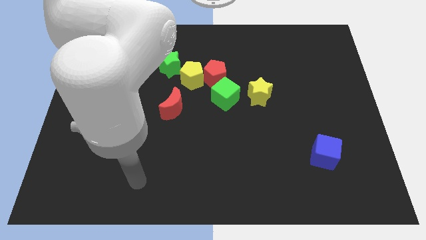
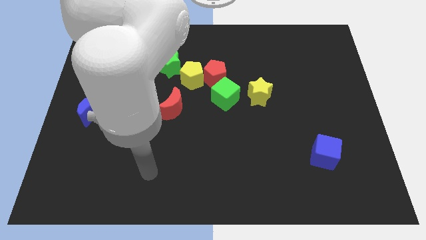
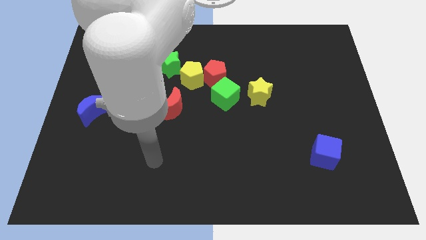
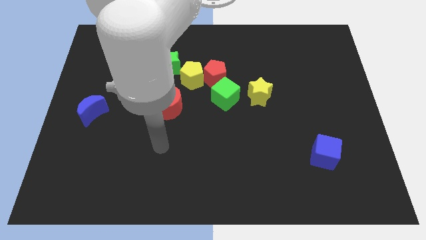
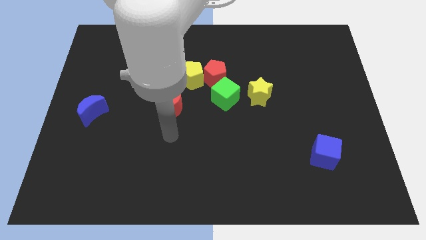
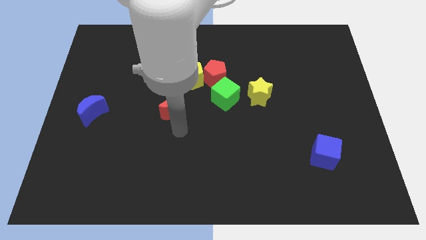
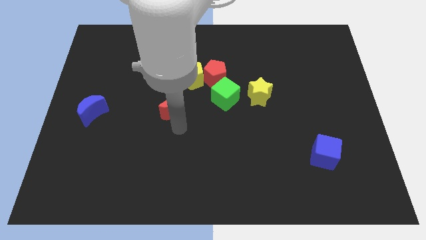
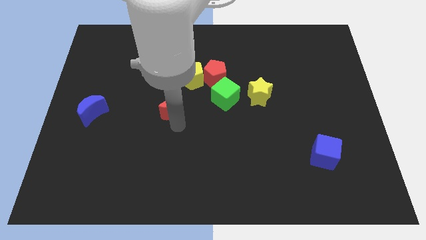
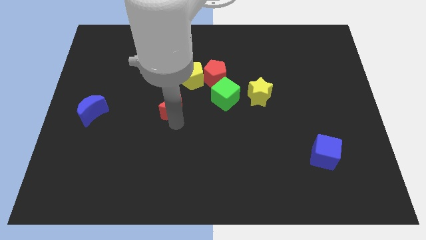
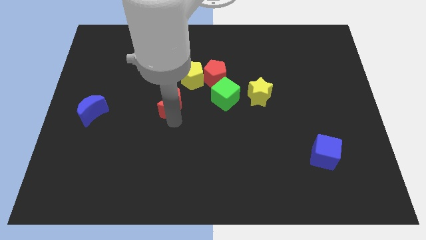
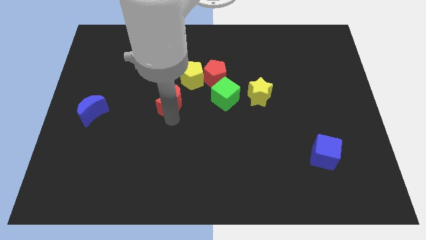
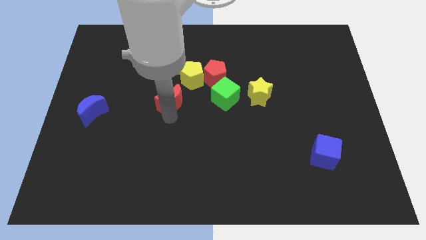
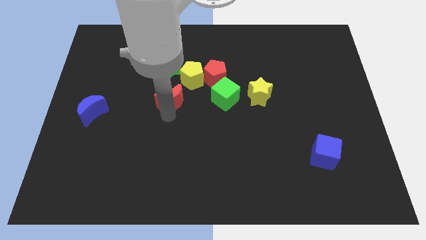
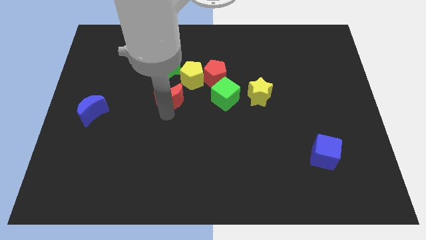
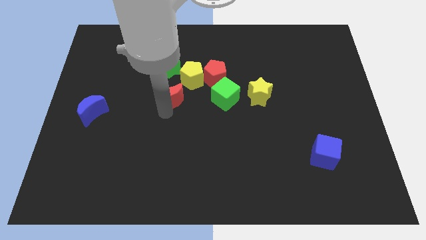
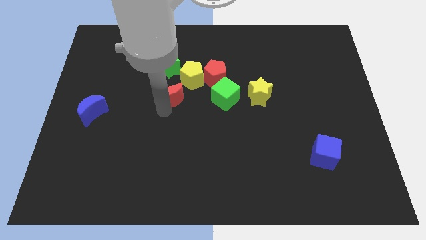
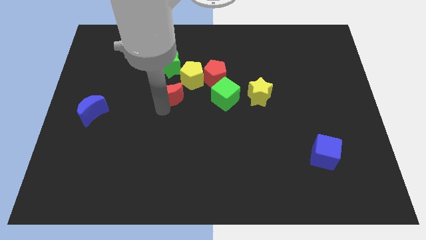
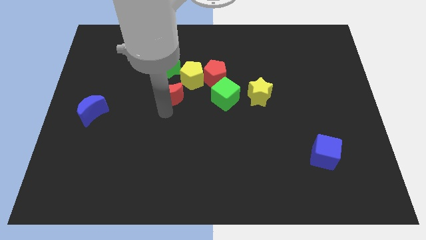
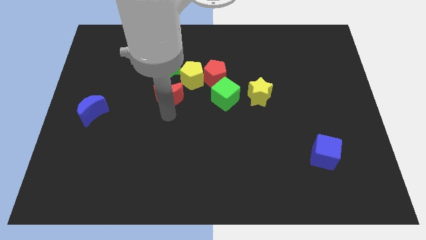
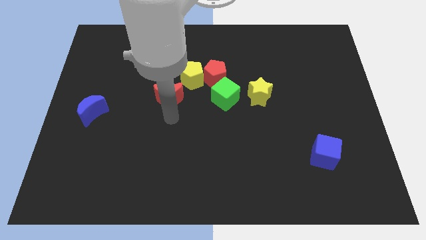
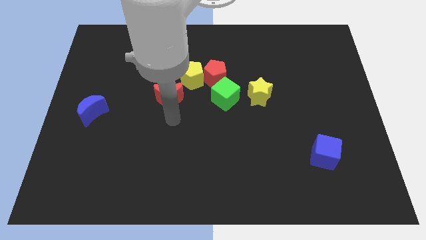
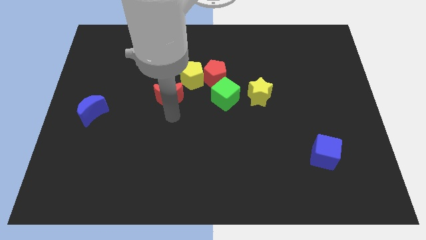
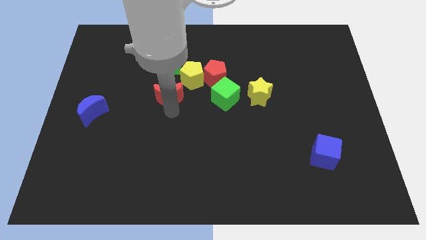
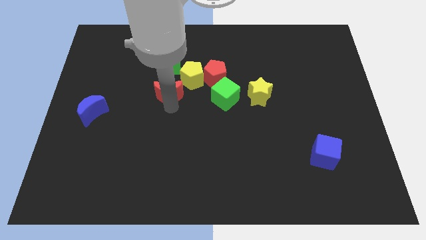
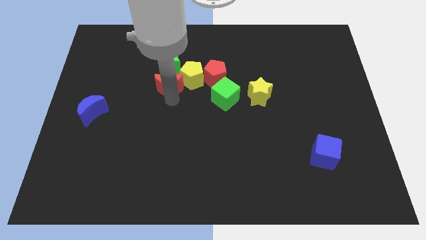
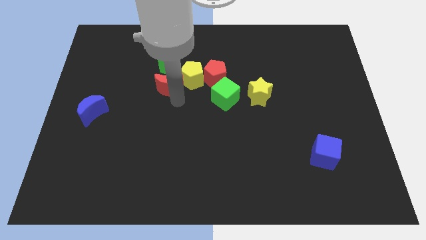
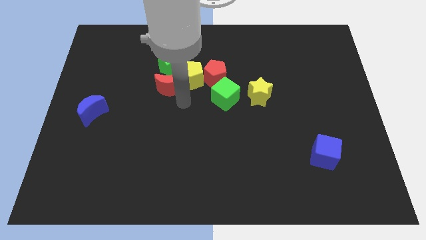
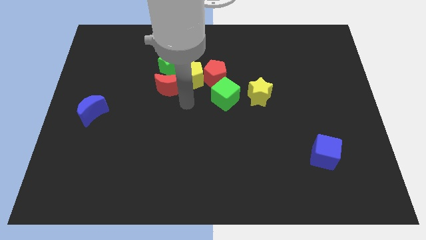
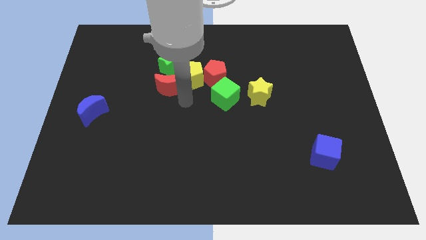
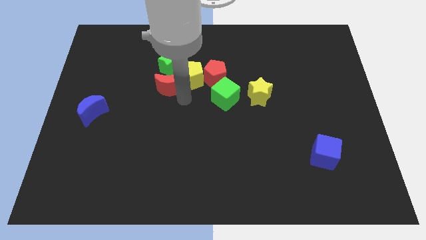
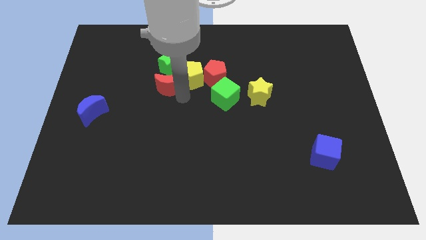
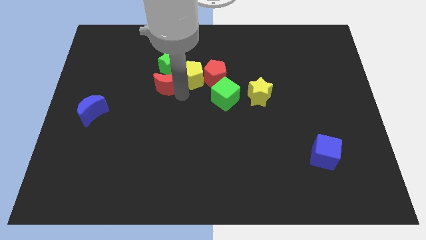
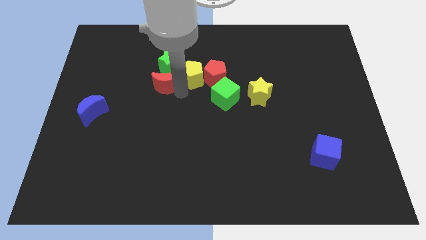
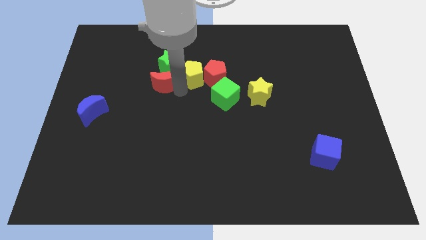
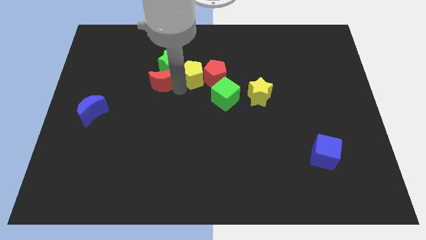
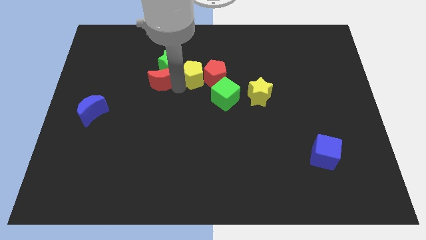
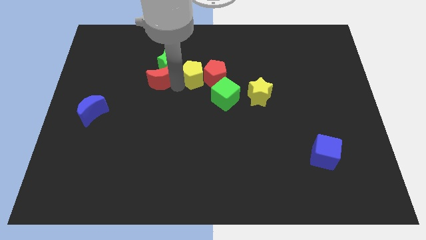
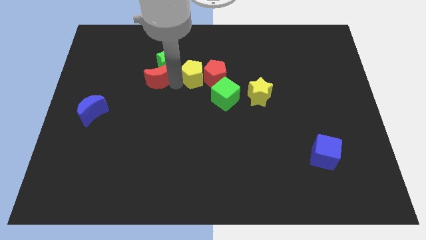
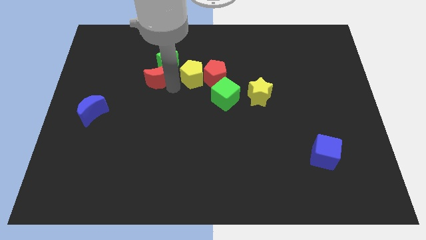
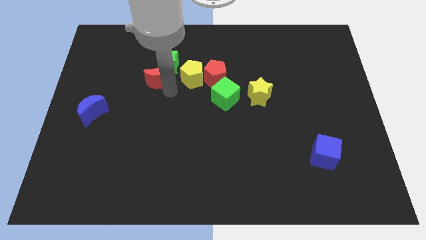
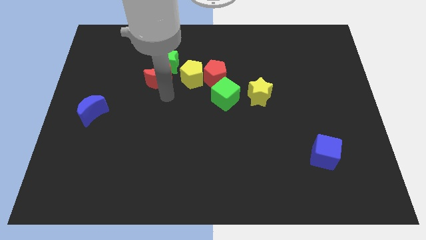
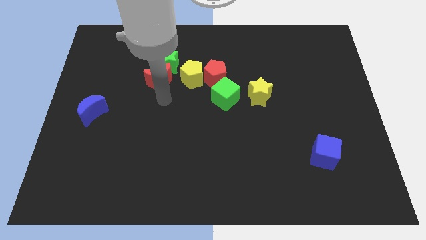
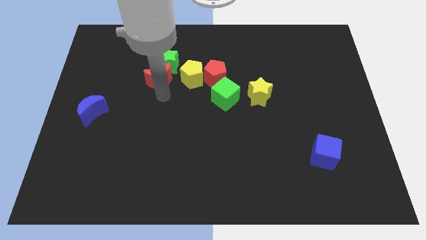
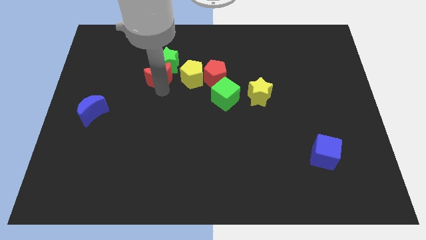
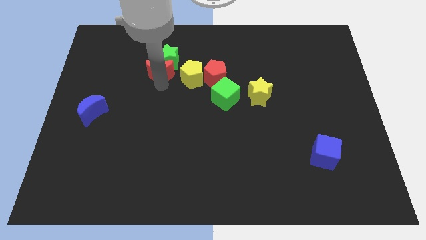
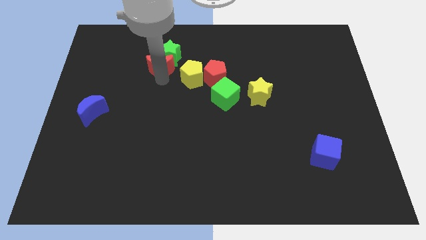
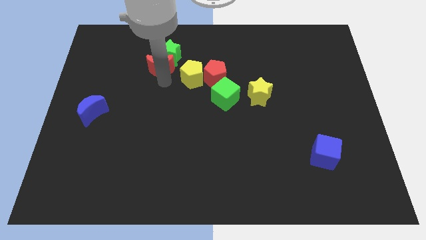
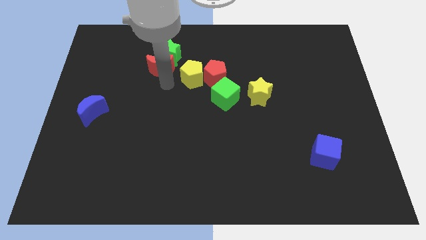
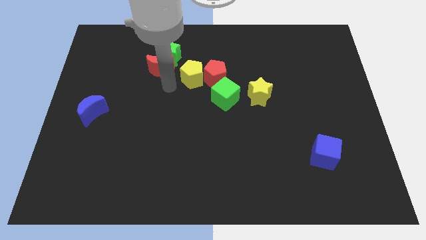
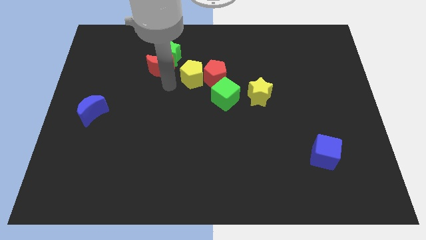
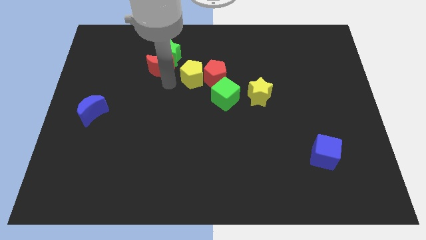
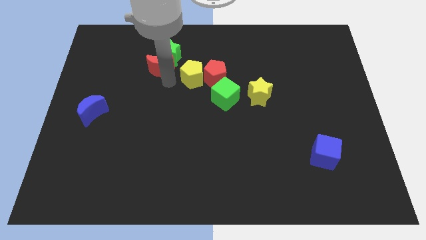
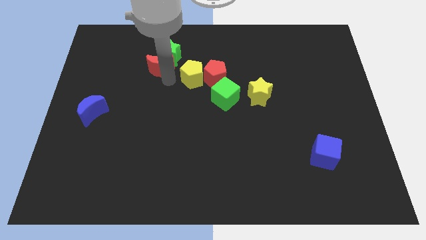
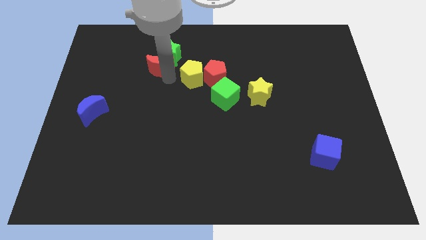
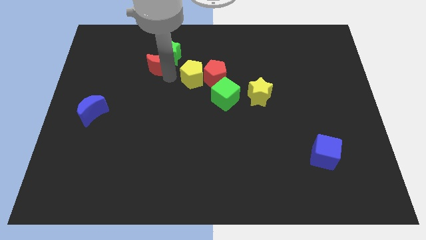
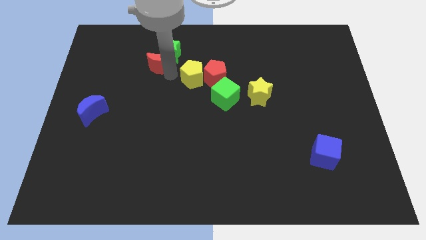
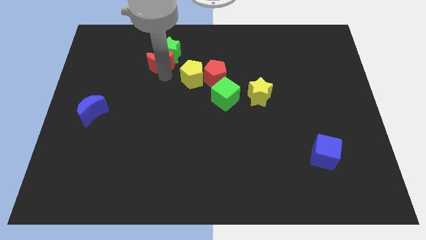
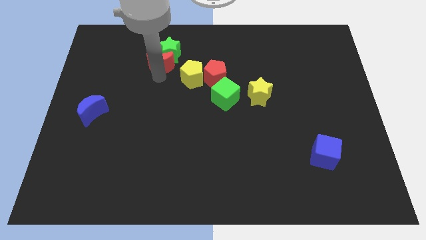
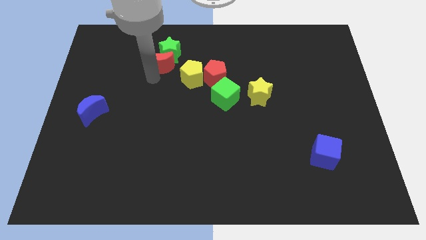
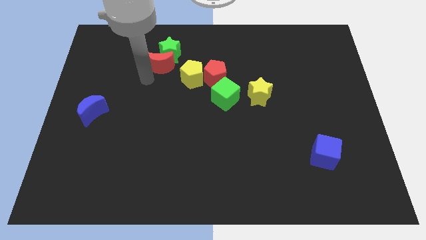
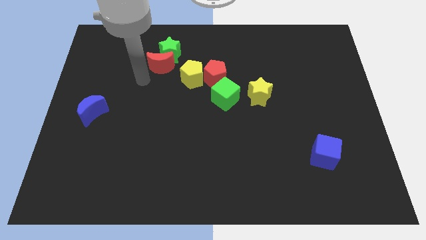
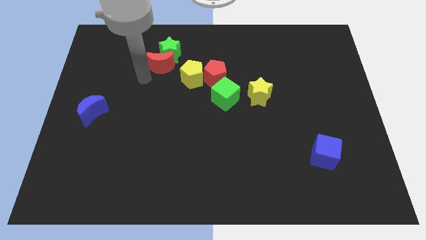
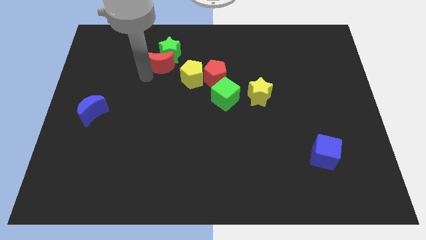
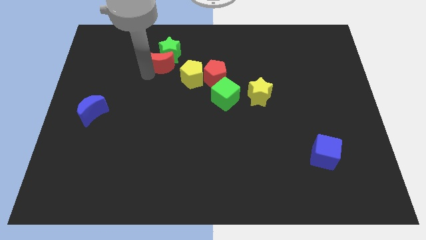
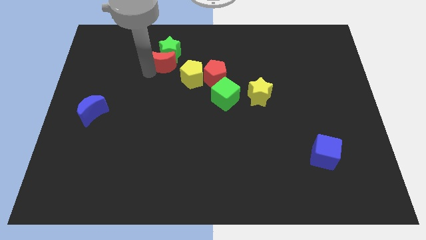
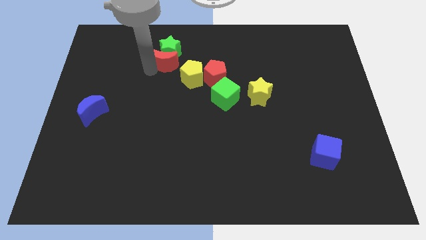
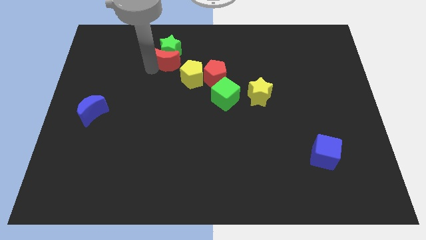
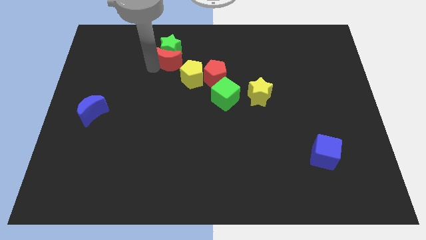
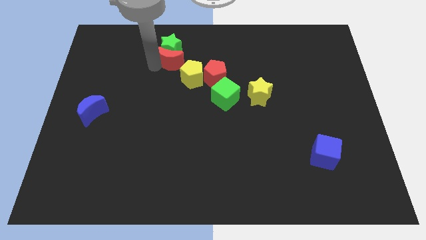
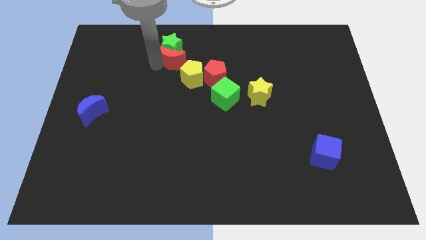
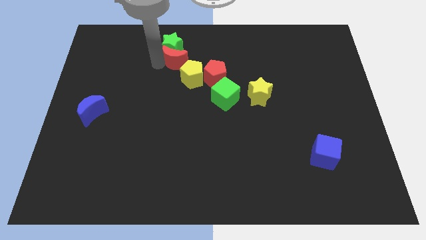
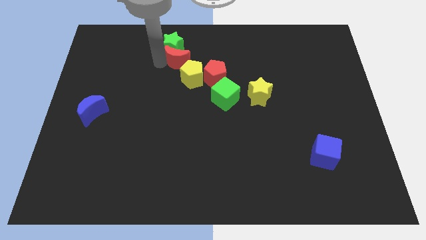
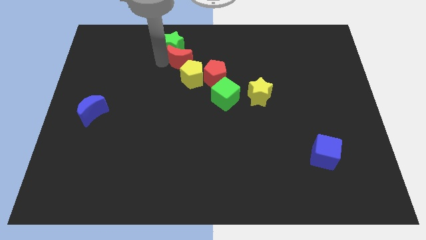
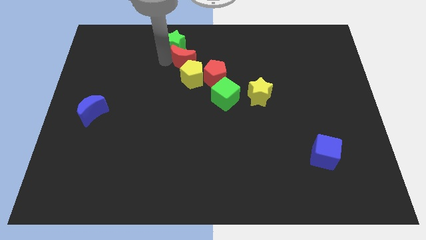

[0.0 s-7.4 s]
slightly slide the red moon up and to the right

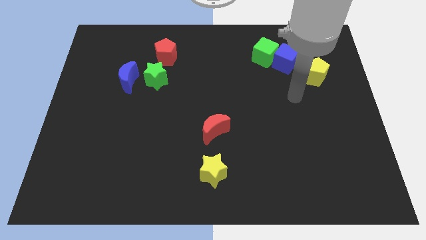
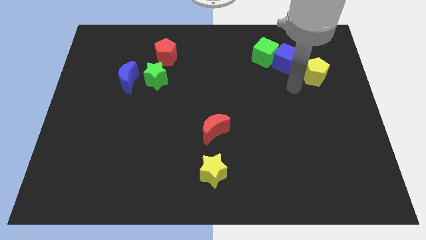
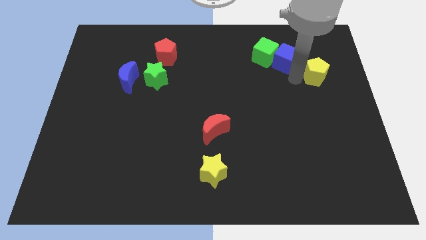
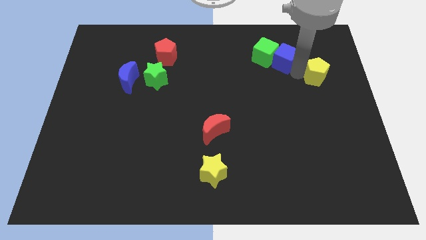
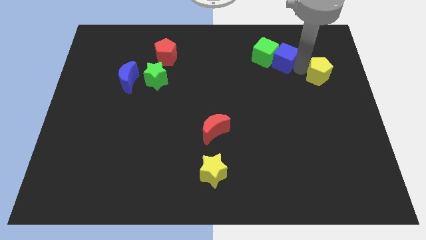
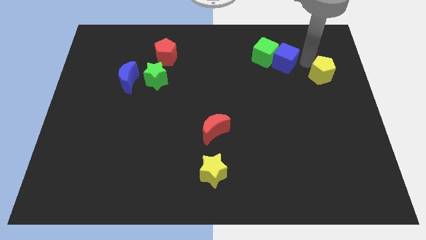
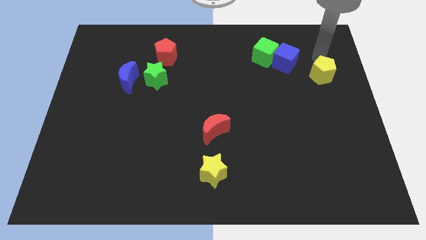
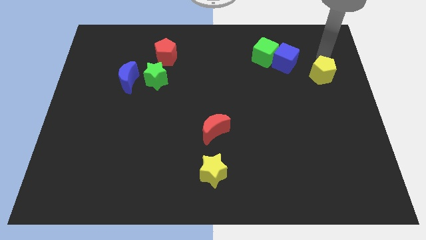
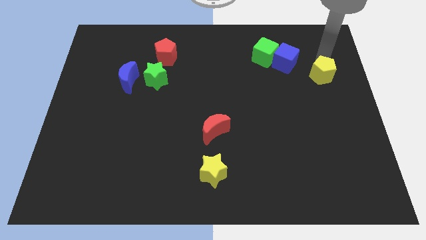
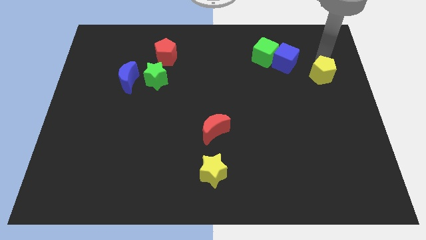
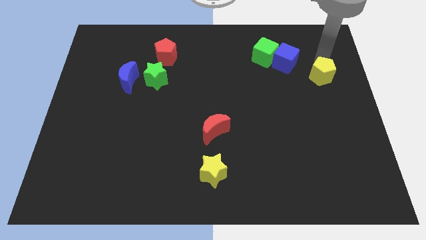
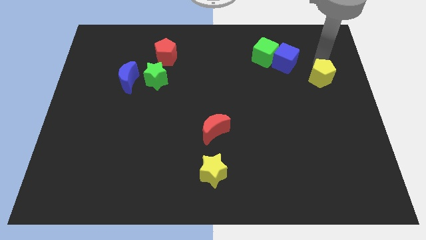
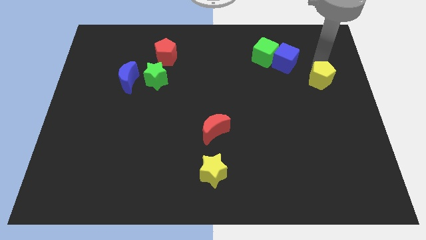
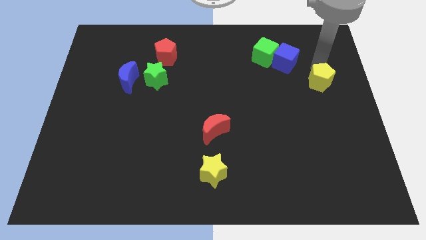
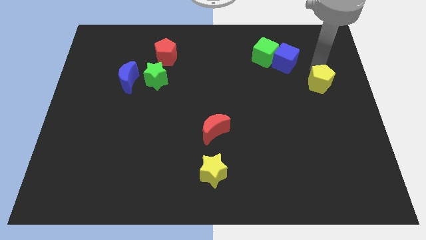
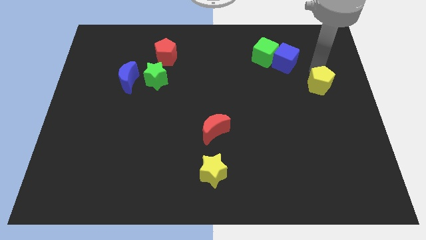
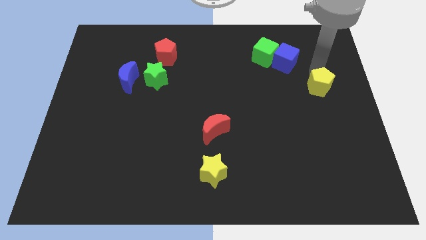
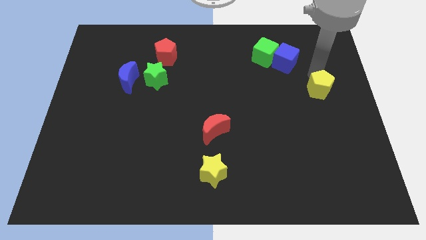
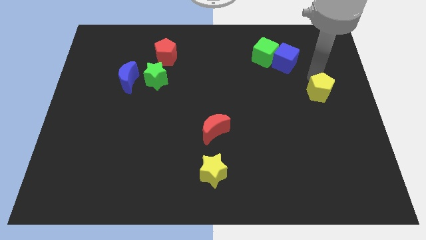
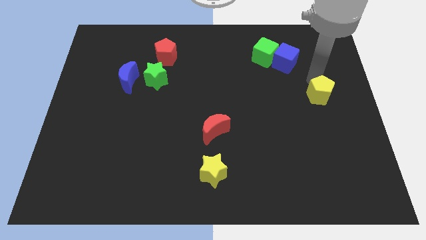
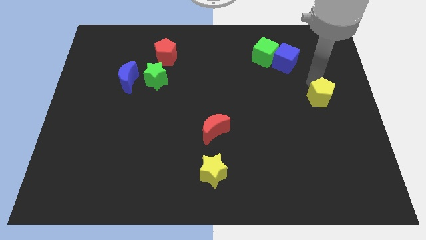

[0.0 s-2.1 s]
slightly slide the yellow pentagon down
